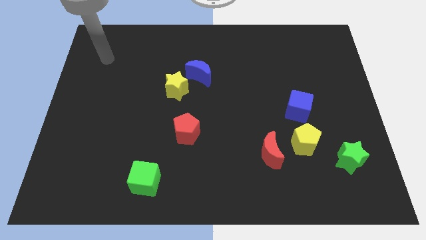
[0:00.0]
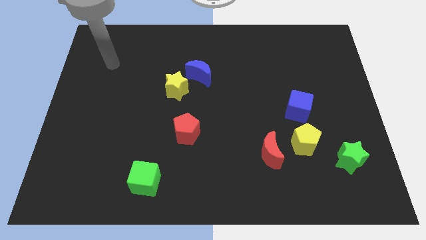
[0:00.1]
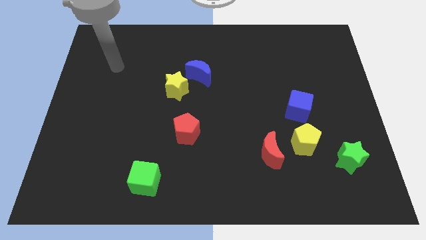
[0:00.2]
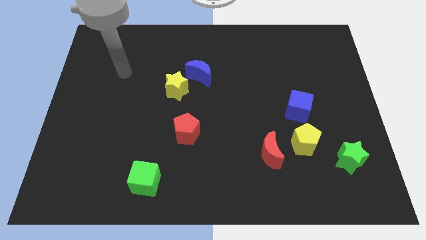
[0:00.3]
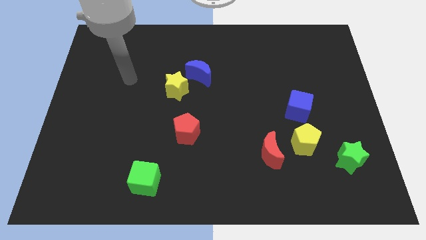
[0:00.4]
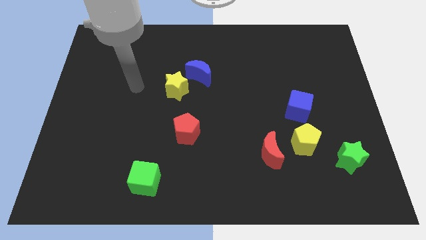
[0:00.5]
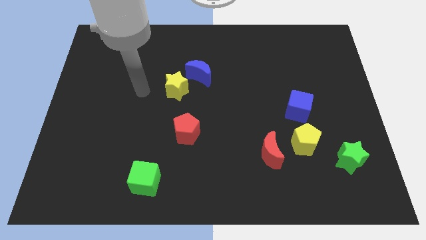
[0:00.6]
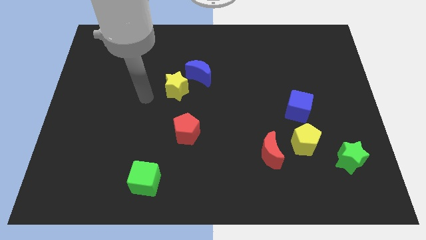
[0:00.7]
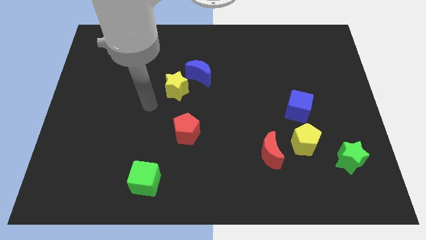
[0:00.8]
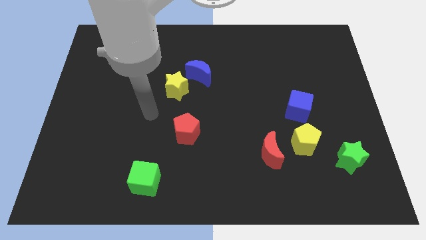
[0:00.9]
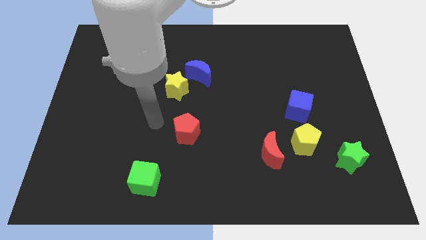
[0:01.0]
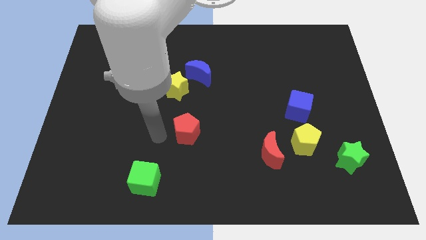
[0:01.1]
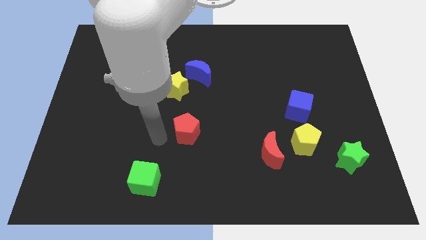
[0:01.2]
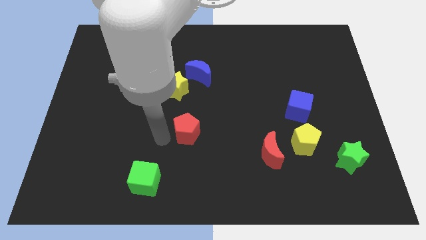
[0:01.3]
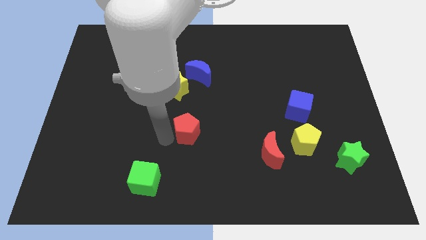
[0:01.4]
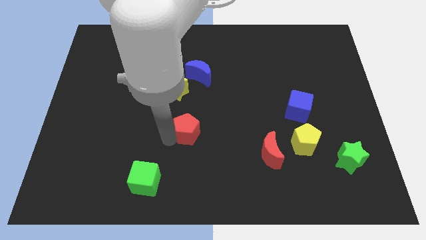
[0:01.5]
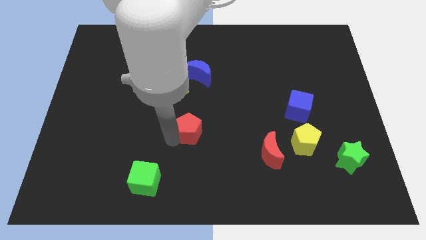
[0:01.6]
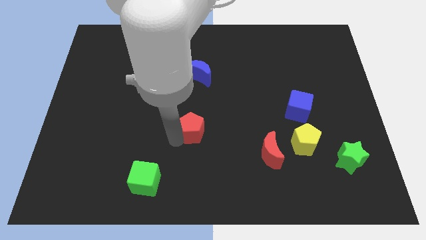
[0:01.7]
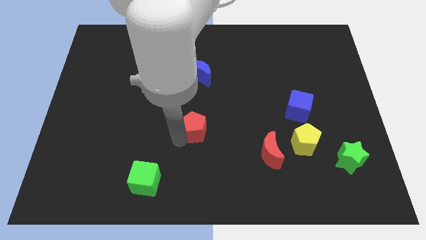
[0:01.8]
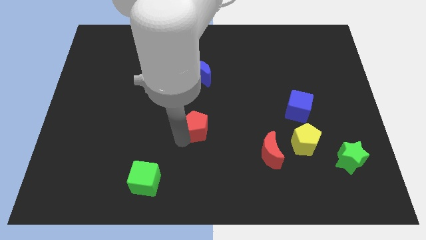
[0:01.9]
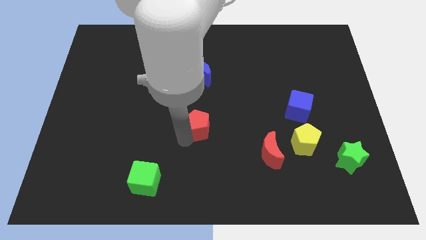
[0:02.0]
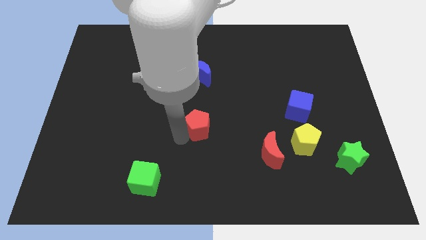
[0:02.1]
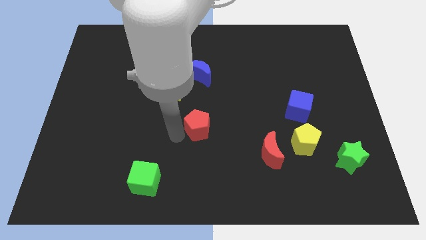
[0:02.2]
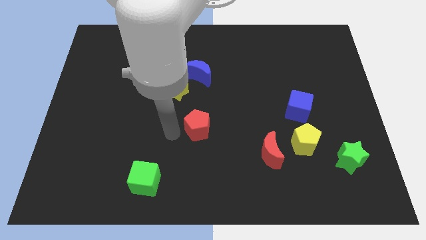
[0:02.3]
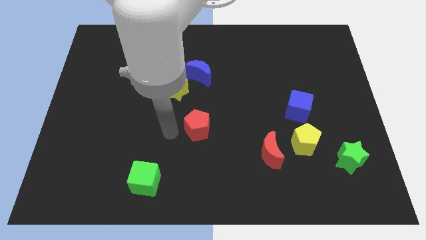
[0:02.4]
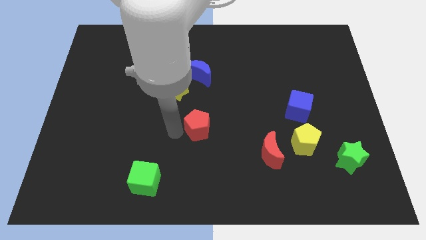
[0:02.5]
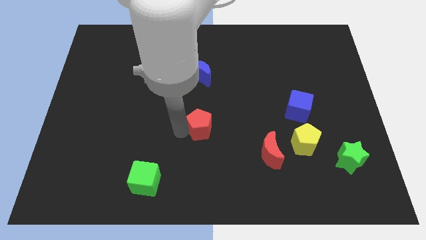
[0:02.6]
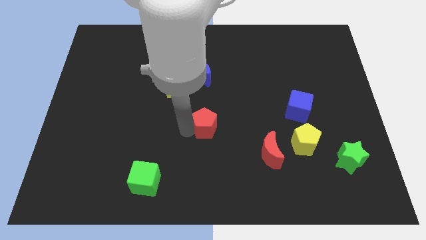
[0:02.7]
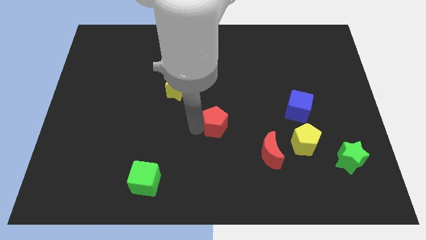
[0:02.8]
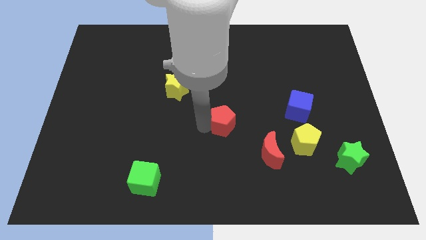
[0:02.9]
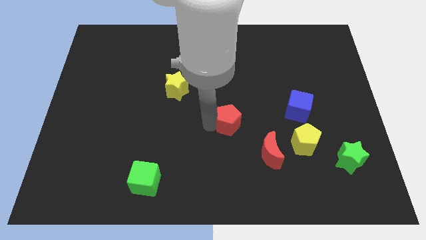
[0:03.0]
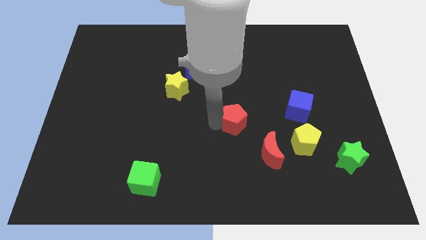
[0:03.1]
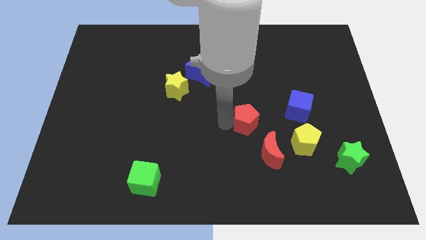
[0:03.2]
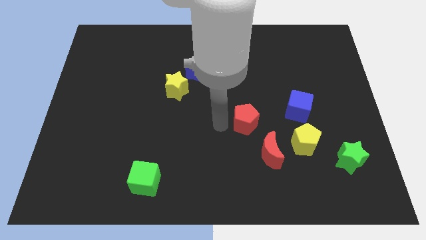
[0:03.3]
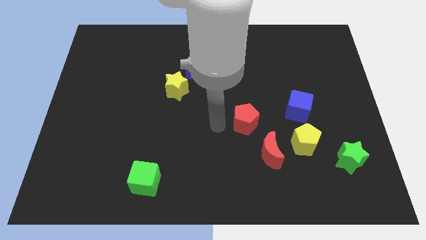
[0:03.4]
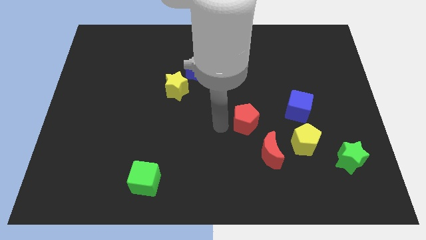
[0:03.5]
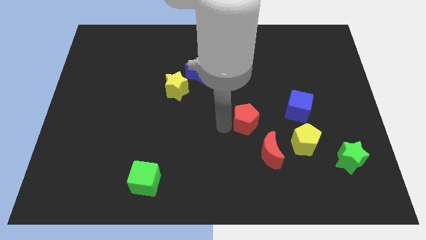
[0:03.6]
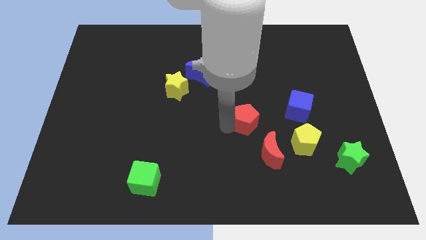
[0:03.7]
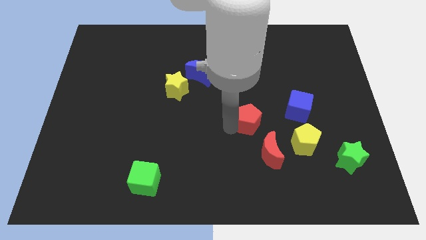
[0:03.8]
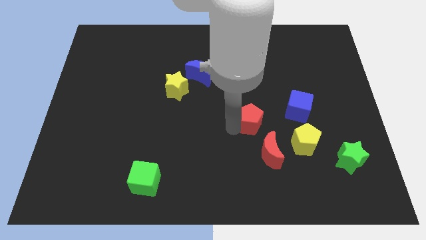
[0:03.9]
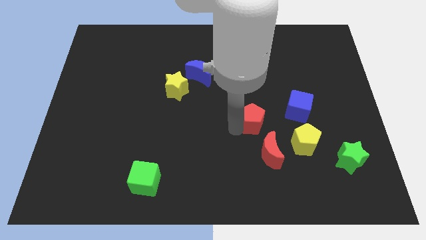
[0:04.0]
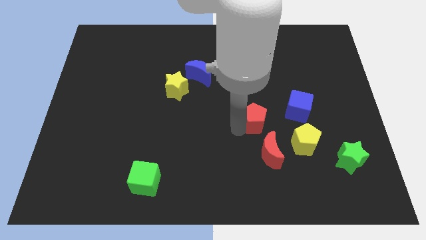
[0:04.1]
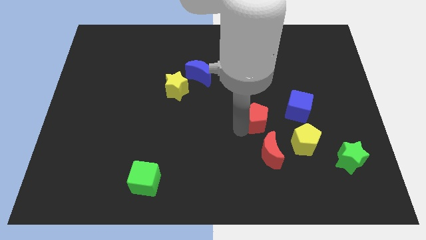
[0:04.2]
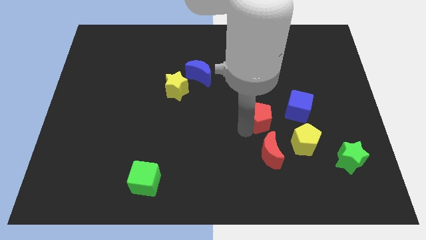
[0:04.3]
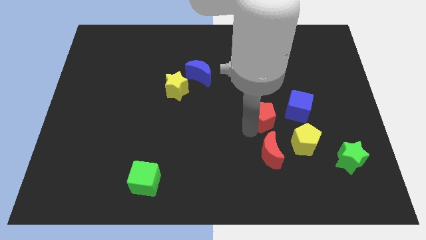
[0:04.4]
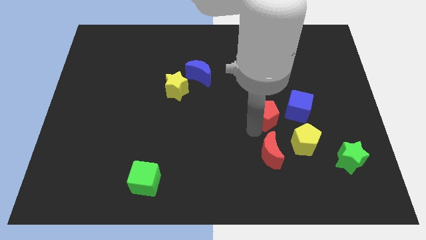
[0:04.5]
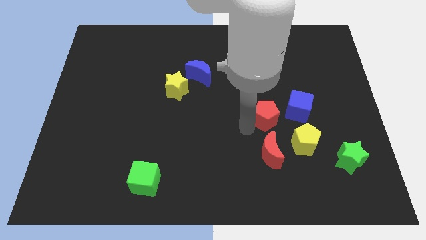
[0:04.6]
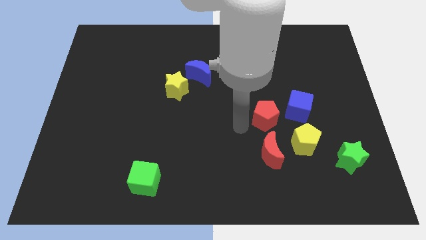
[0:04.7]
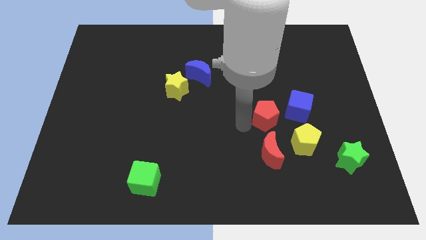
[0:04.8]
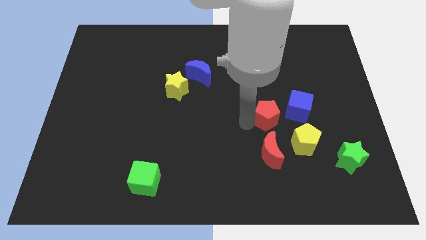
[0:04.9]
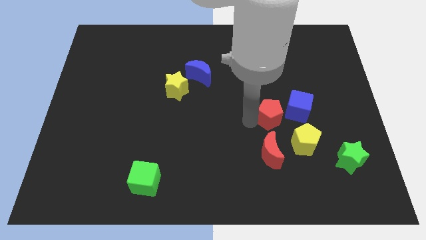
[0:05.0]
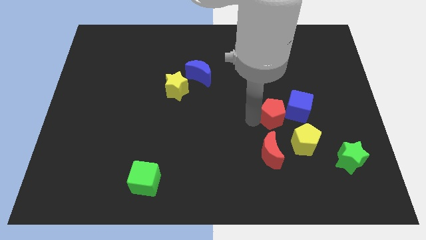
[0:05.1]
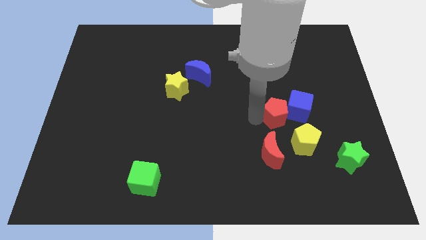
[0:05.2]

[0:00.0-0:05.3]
push the red pentagon to the blue cube

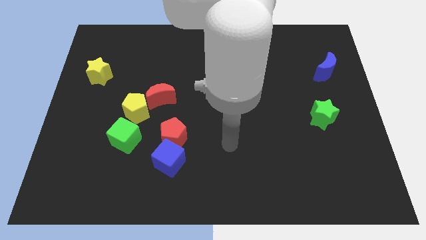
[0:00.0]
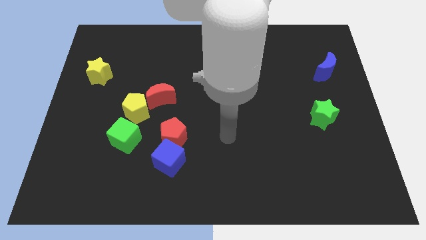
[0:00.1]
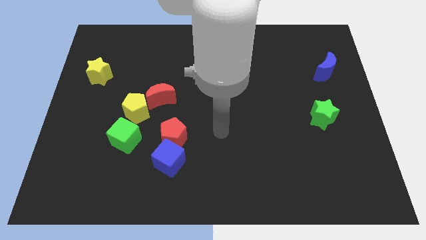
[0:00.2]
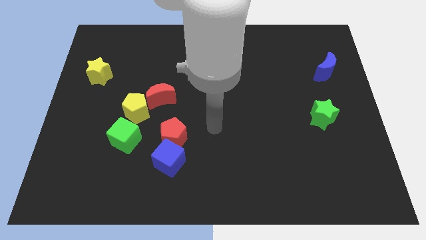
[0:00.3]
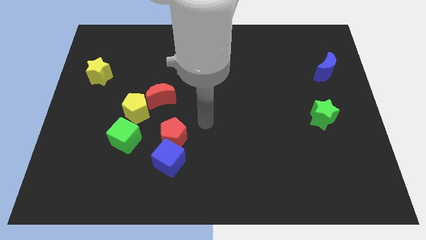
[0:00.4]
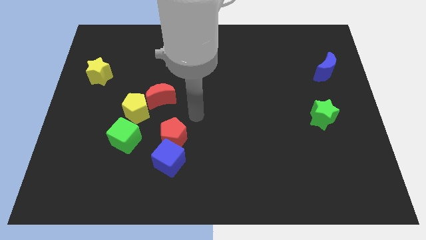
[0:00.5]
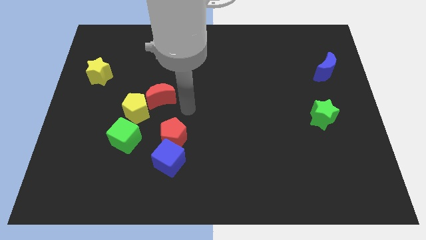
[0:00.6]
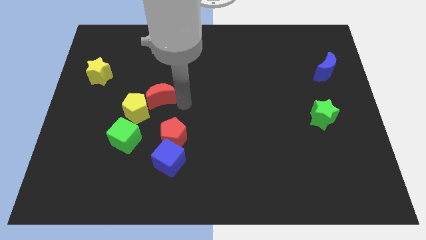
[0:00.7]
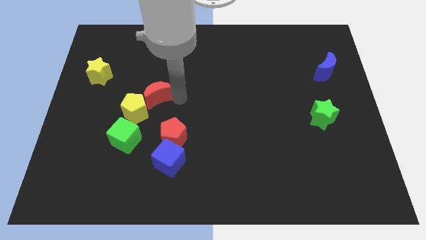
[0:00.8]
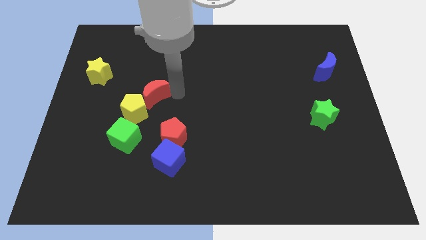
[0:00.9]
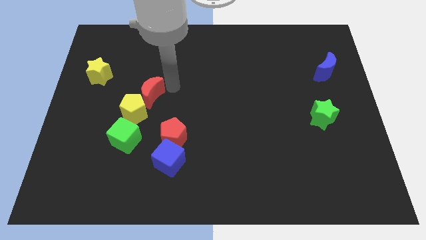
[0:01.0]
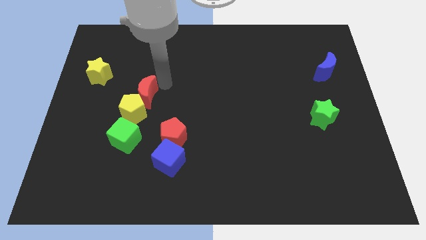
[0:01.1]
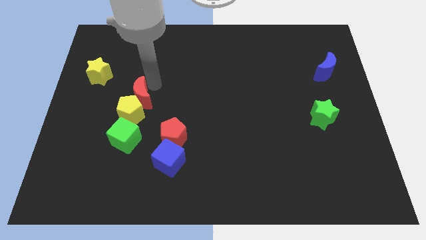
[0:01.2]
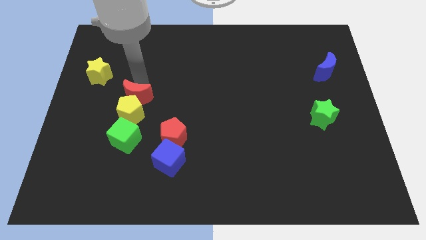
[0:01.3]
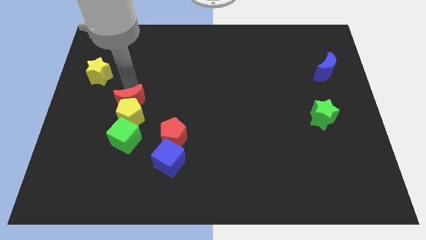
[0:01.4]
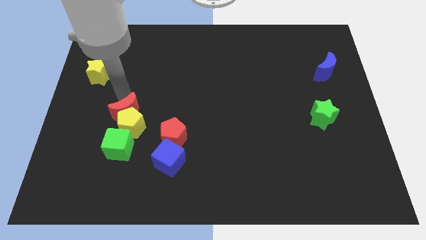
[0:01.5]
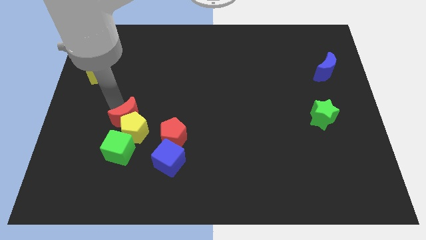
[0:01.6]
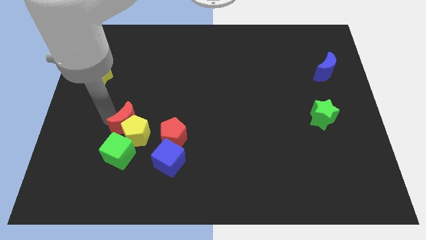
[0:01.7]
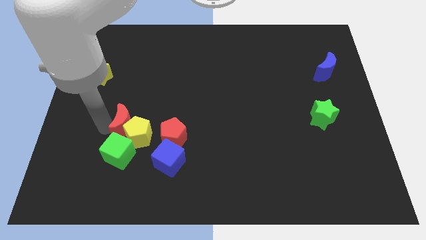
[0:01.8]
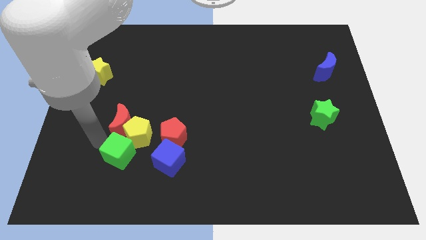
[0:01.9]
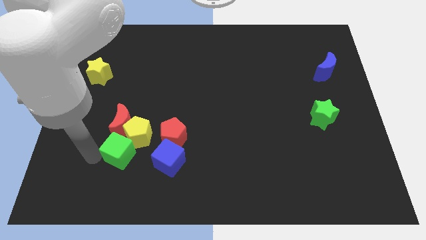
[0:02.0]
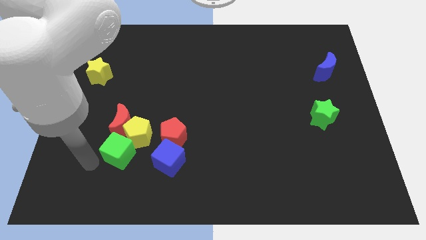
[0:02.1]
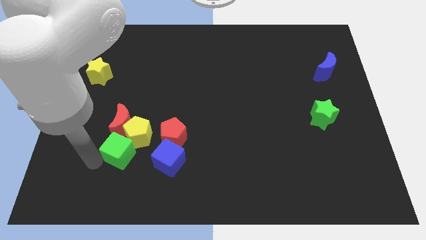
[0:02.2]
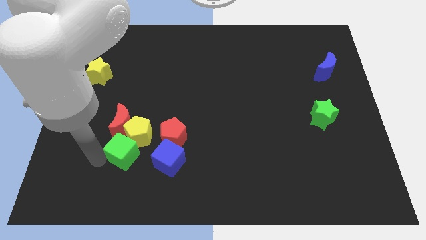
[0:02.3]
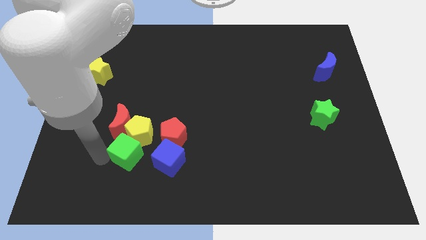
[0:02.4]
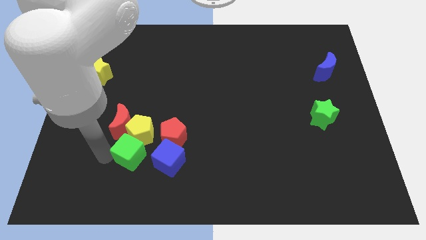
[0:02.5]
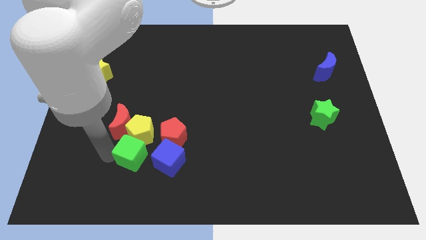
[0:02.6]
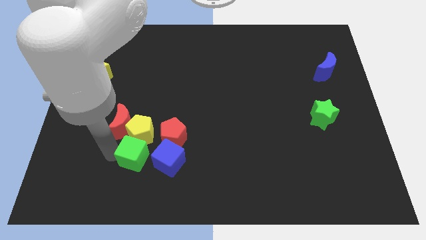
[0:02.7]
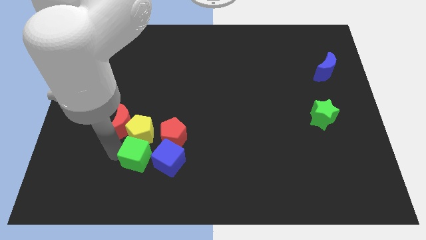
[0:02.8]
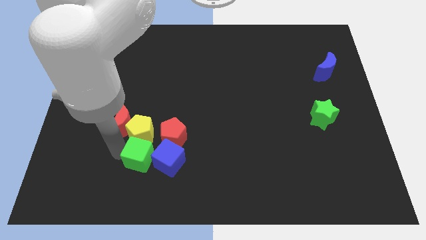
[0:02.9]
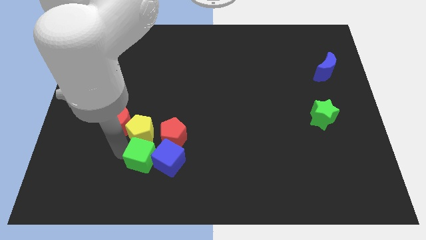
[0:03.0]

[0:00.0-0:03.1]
move the green cube close to the blue cube
